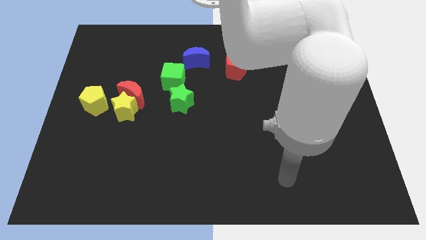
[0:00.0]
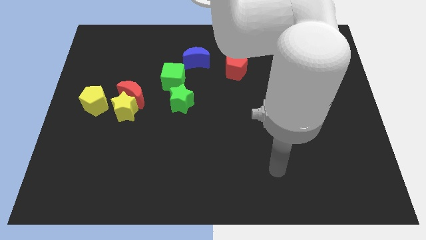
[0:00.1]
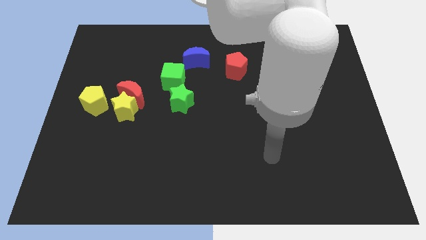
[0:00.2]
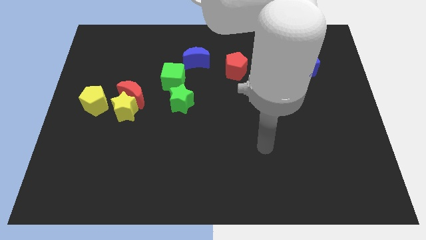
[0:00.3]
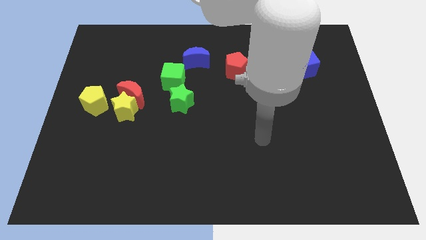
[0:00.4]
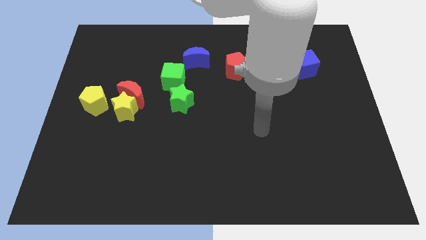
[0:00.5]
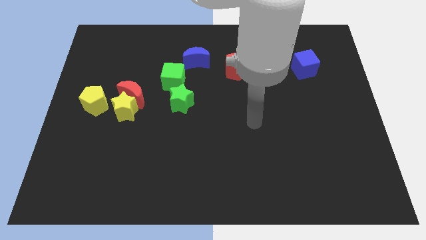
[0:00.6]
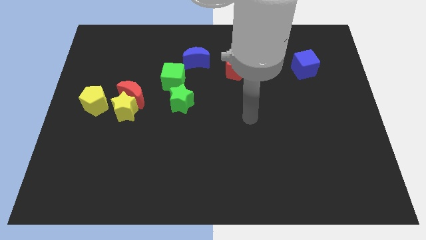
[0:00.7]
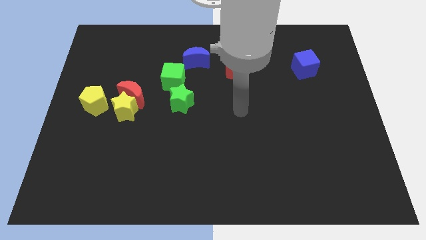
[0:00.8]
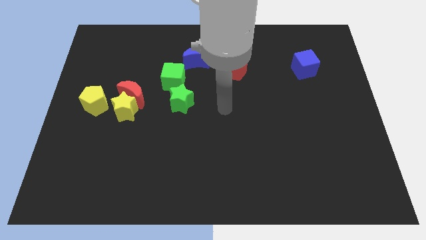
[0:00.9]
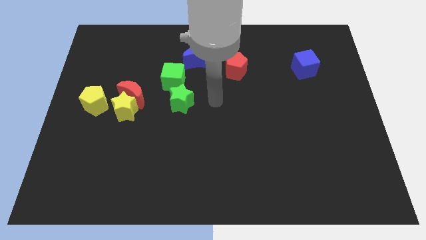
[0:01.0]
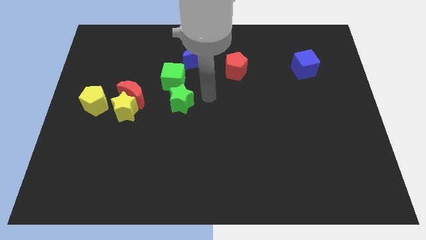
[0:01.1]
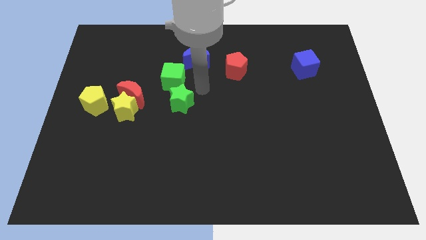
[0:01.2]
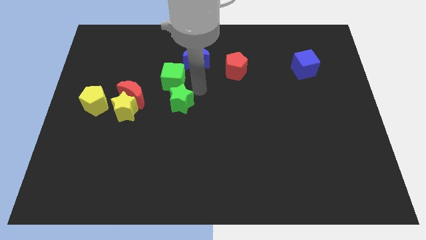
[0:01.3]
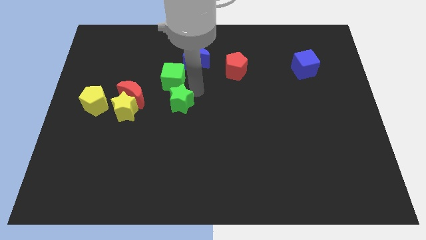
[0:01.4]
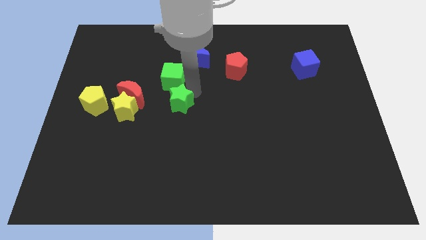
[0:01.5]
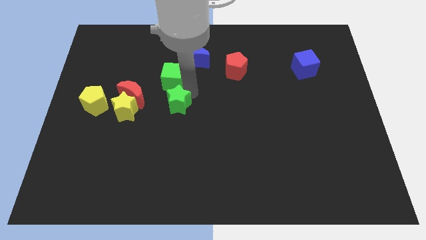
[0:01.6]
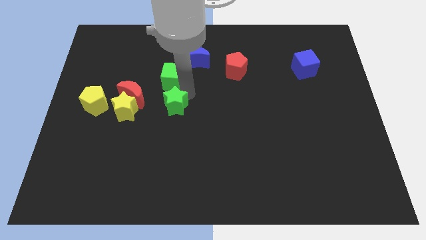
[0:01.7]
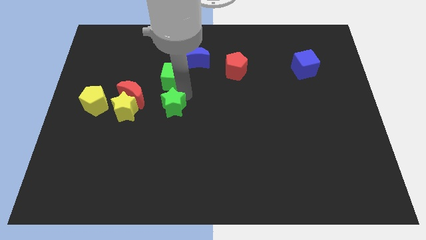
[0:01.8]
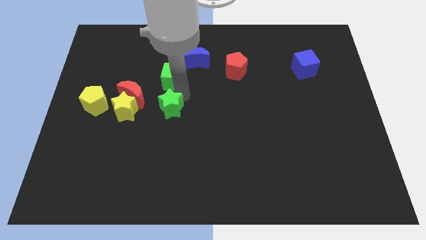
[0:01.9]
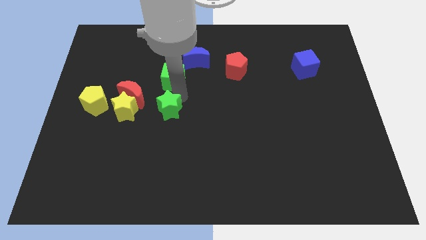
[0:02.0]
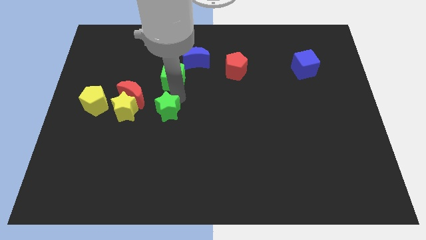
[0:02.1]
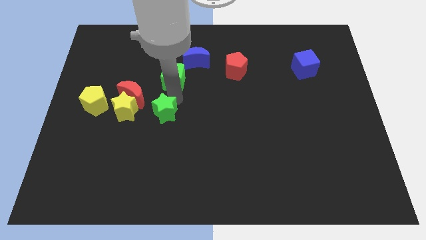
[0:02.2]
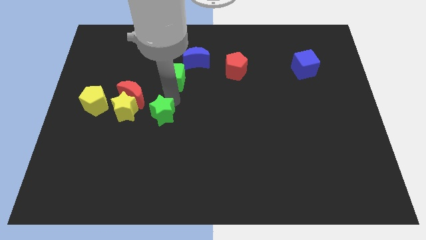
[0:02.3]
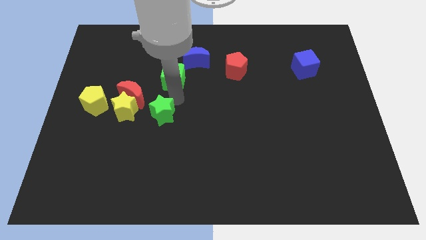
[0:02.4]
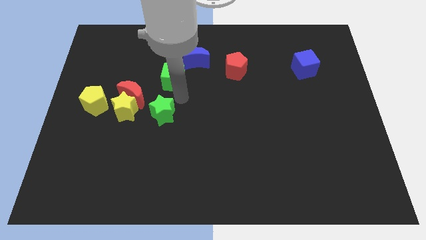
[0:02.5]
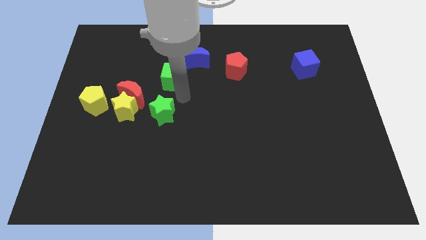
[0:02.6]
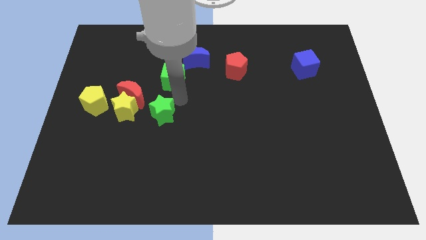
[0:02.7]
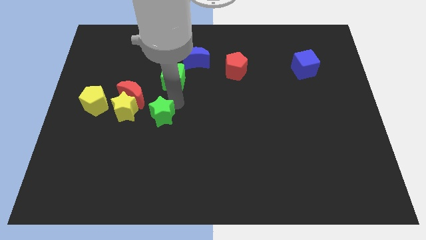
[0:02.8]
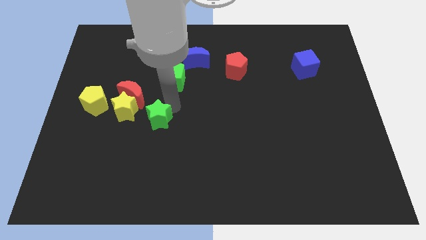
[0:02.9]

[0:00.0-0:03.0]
slightly push the green star diagonally downwards and left

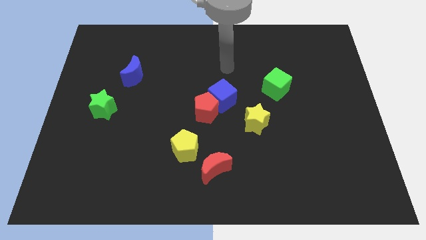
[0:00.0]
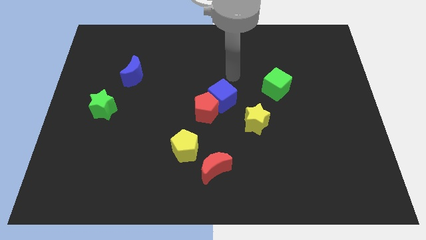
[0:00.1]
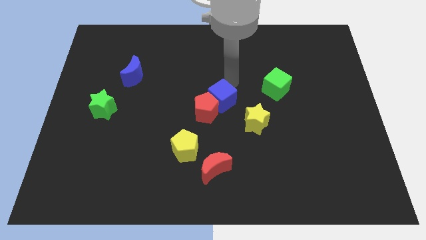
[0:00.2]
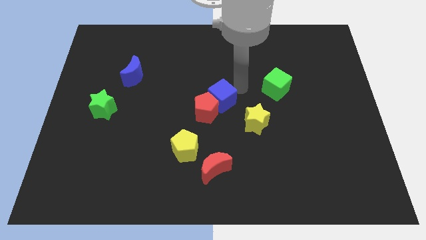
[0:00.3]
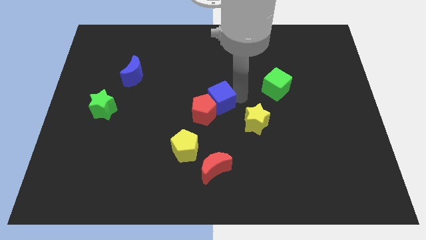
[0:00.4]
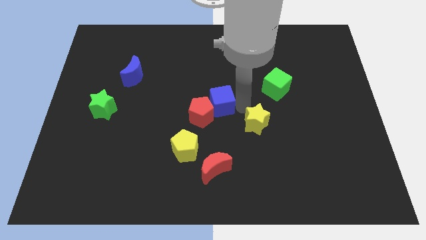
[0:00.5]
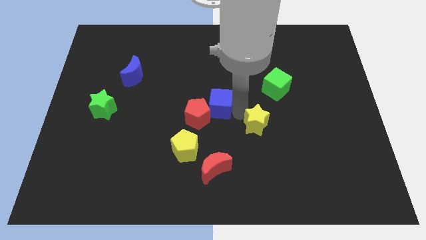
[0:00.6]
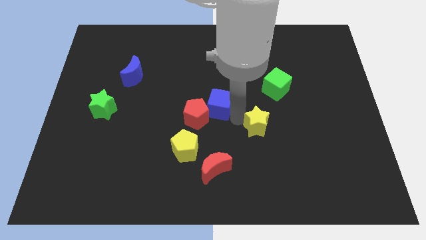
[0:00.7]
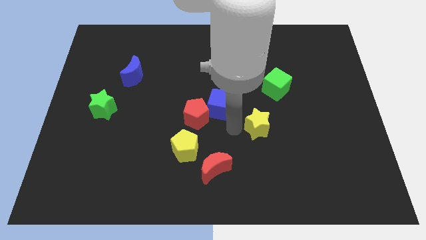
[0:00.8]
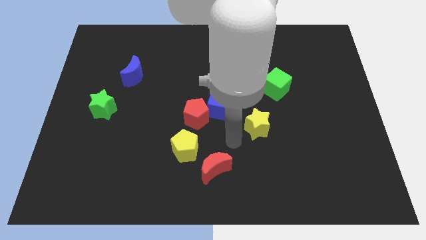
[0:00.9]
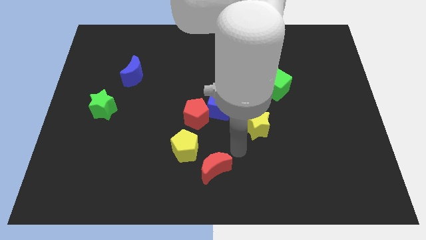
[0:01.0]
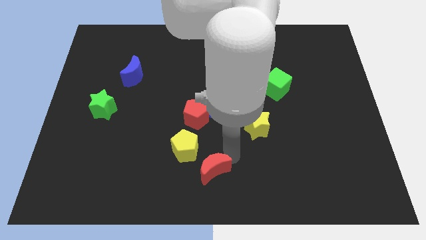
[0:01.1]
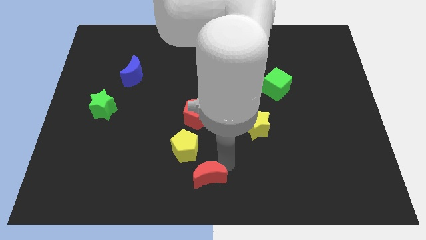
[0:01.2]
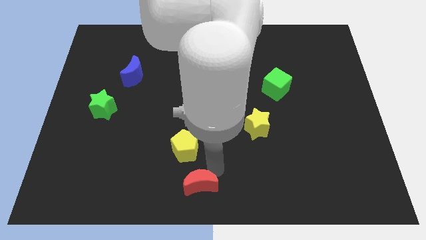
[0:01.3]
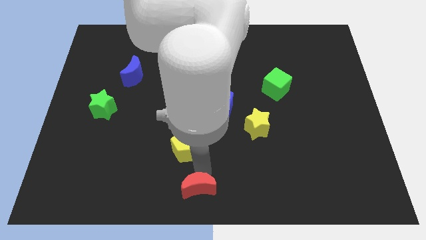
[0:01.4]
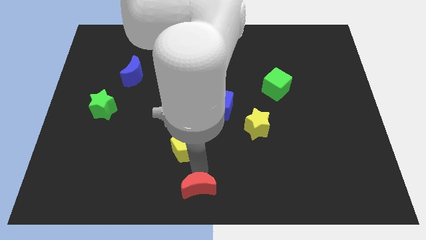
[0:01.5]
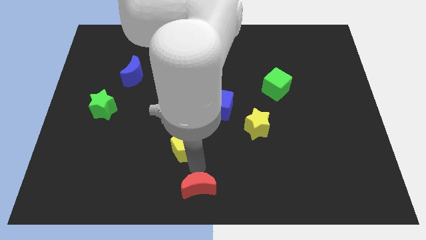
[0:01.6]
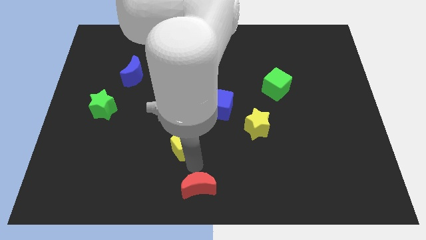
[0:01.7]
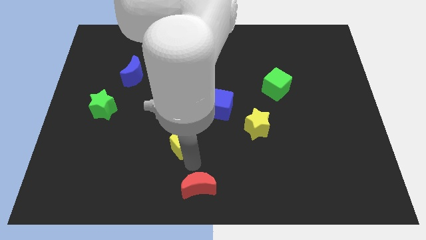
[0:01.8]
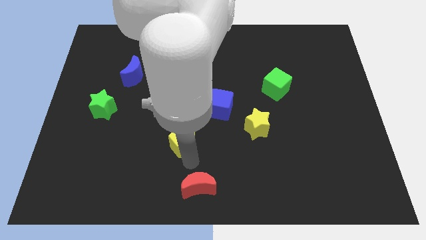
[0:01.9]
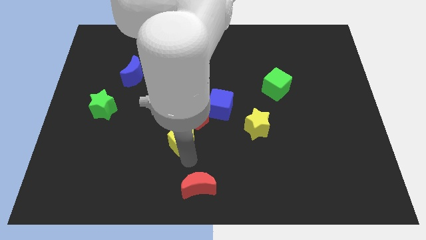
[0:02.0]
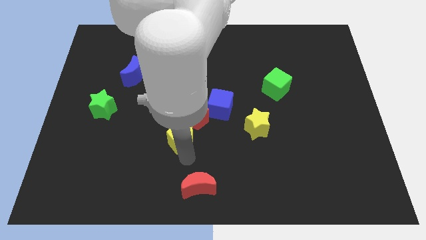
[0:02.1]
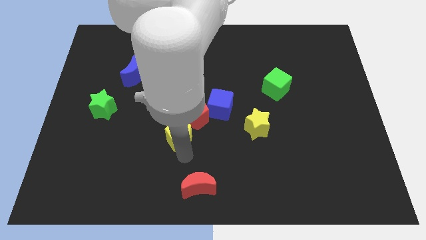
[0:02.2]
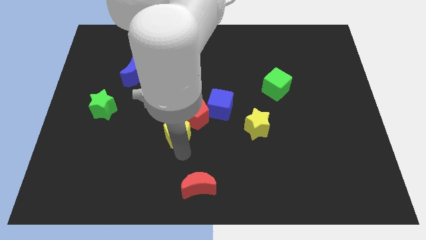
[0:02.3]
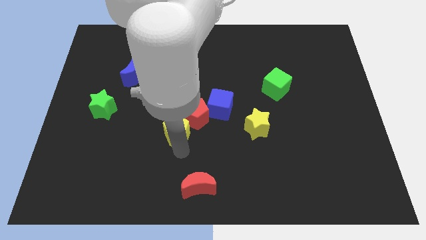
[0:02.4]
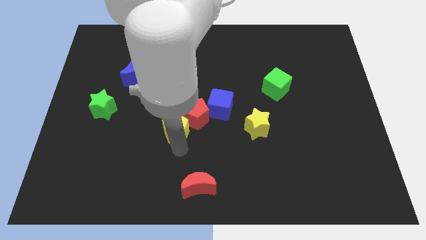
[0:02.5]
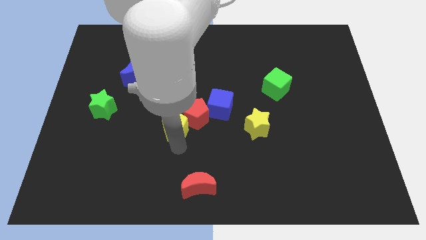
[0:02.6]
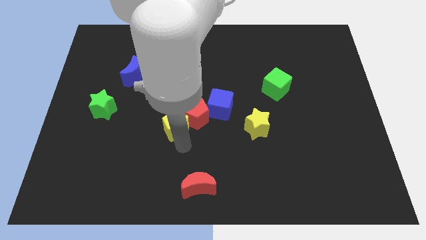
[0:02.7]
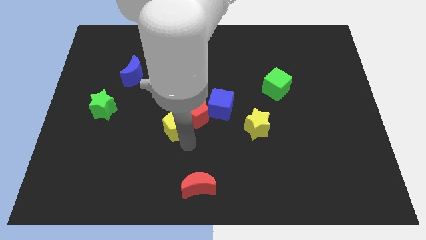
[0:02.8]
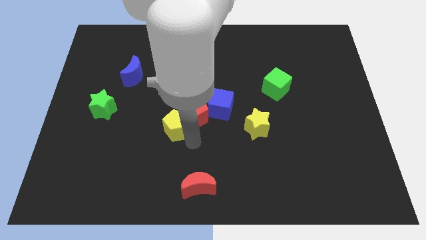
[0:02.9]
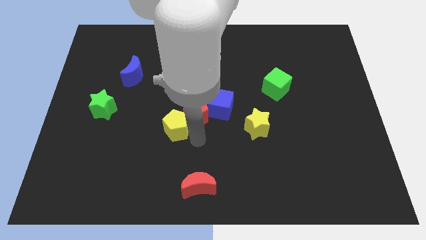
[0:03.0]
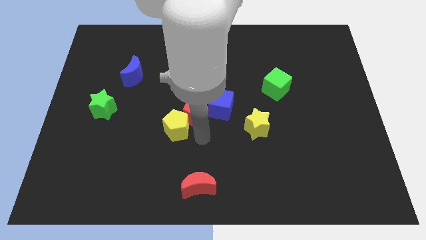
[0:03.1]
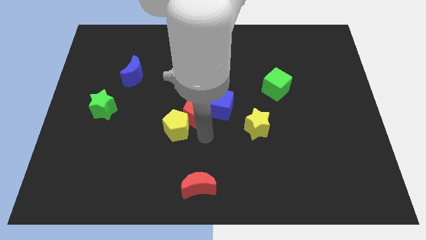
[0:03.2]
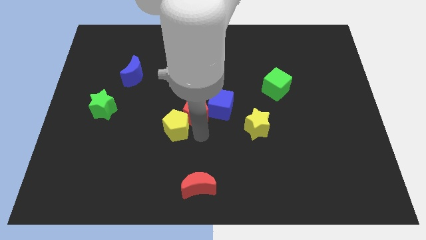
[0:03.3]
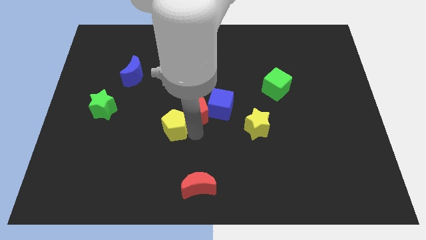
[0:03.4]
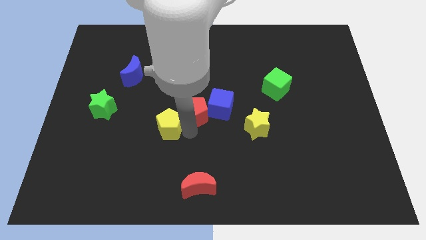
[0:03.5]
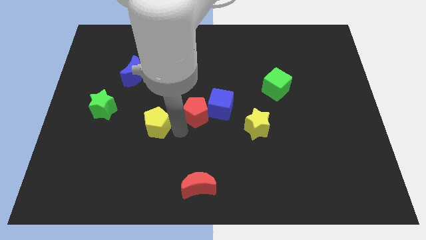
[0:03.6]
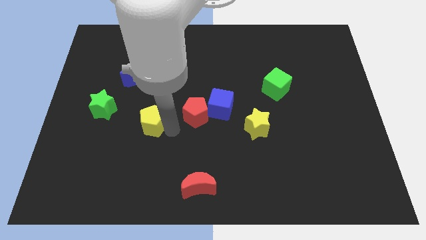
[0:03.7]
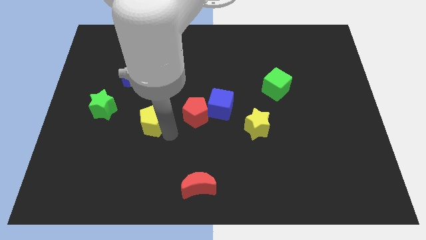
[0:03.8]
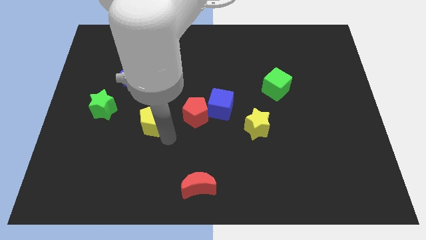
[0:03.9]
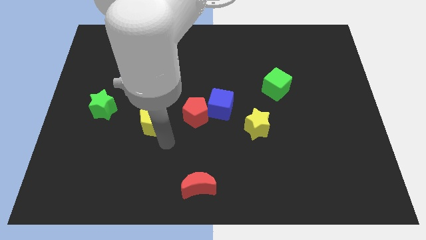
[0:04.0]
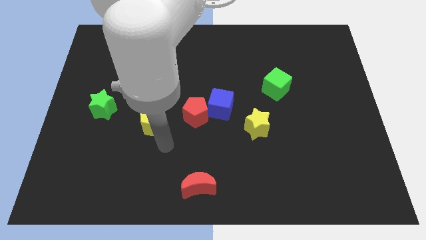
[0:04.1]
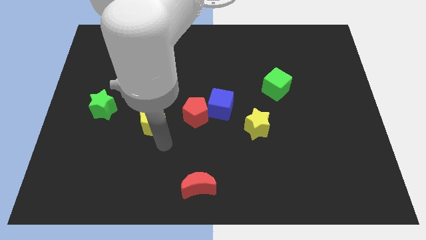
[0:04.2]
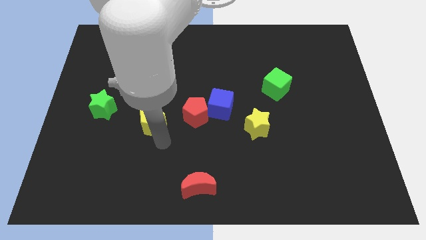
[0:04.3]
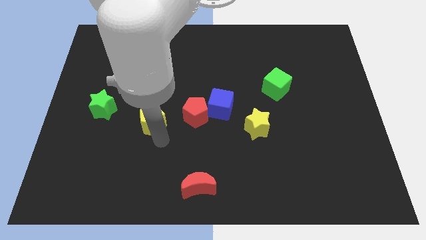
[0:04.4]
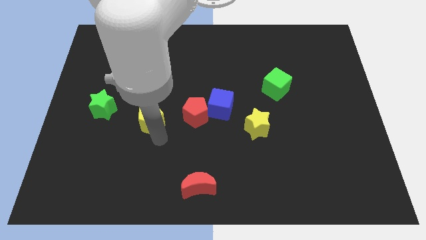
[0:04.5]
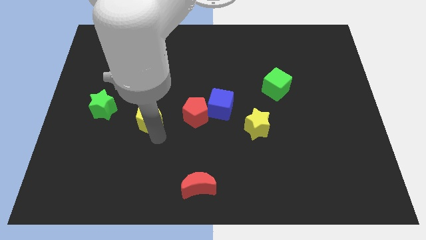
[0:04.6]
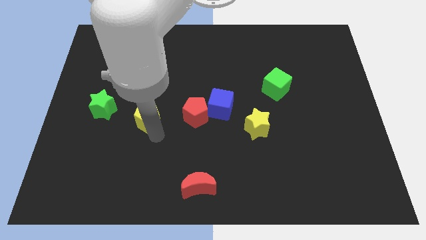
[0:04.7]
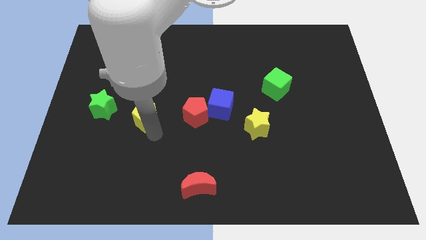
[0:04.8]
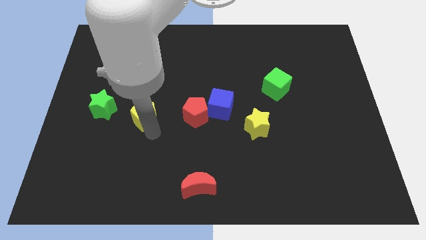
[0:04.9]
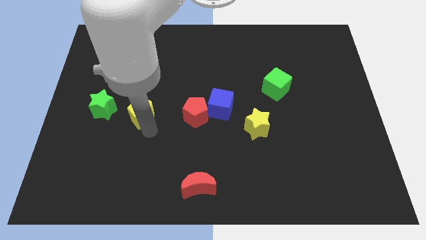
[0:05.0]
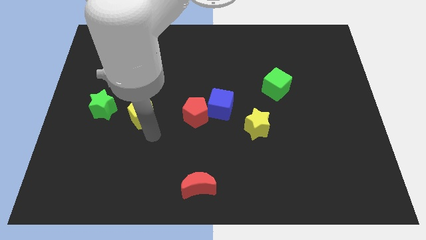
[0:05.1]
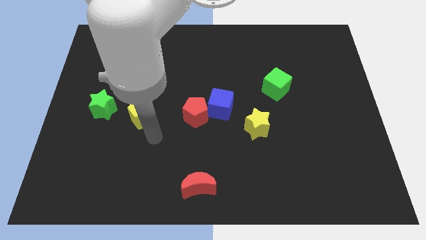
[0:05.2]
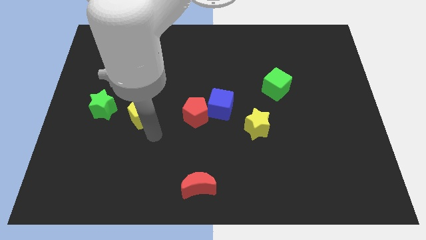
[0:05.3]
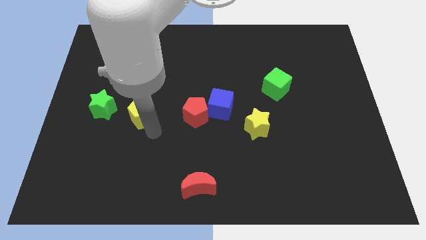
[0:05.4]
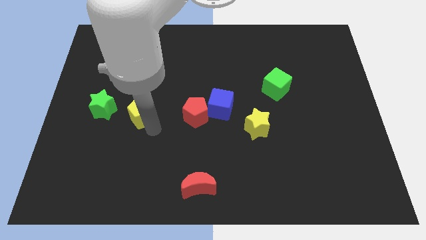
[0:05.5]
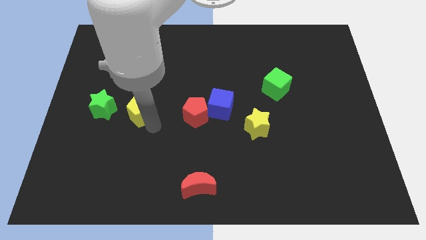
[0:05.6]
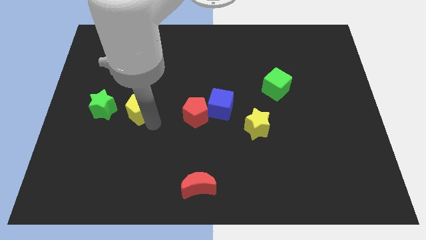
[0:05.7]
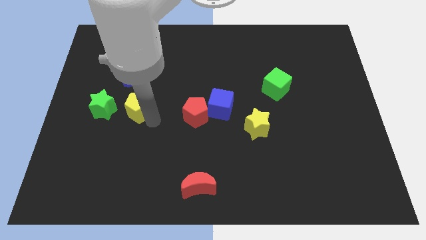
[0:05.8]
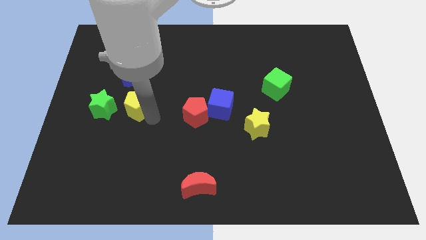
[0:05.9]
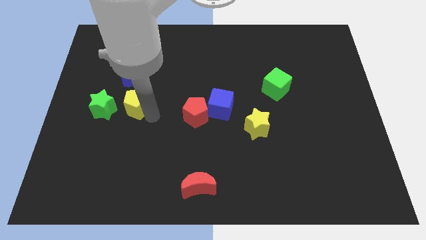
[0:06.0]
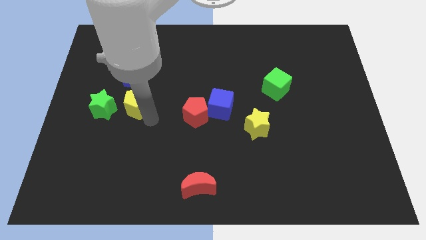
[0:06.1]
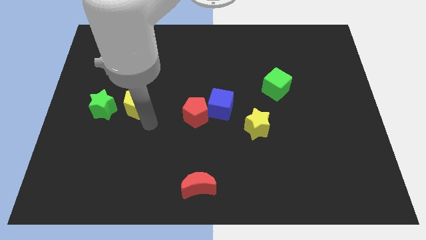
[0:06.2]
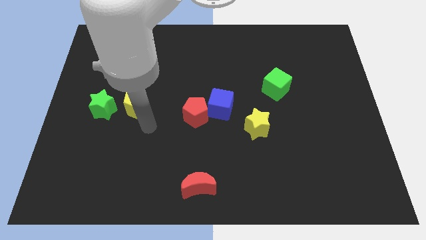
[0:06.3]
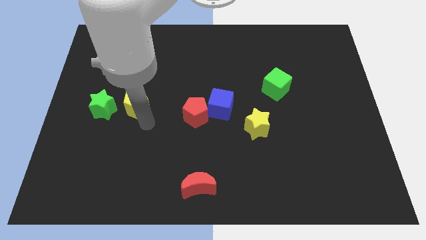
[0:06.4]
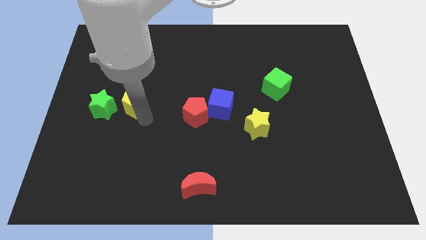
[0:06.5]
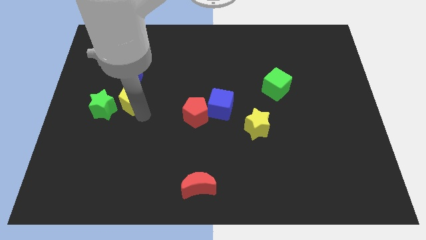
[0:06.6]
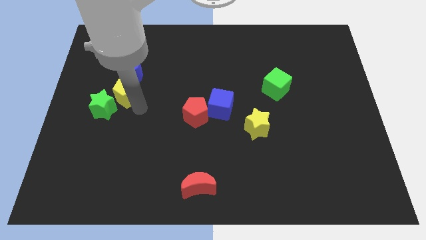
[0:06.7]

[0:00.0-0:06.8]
move the yellow pentagon upwards and then left
